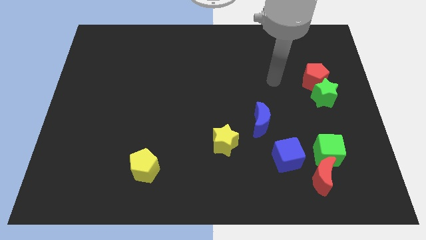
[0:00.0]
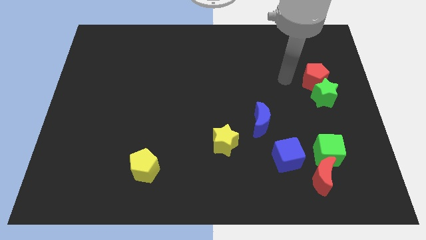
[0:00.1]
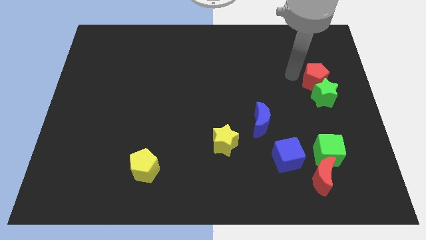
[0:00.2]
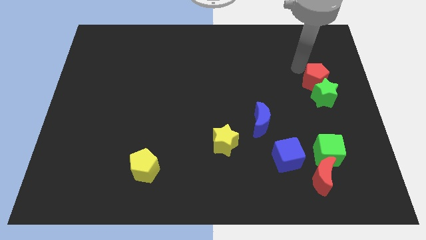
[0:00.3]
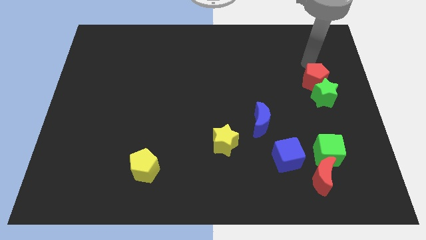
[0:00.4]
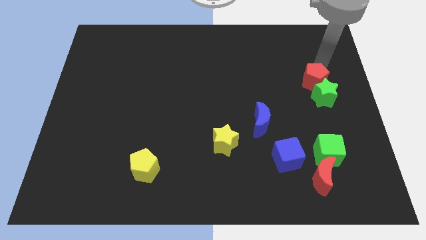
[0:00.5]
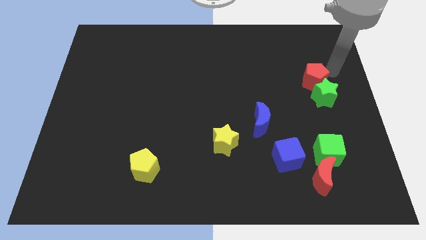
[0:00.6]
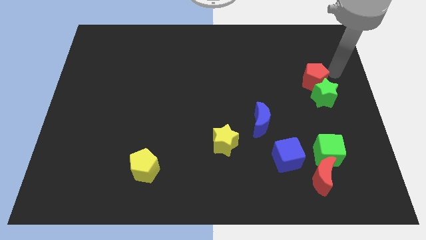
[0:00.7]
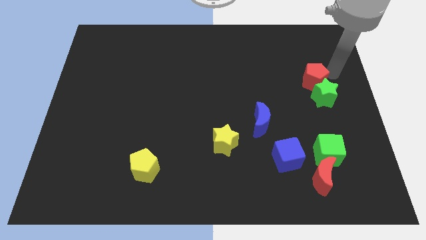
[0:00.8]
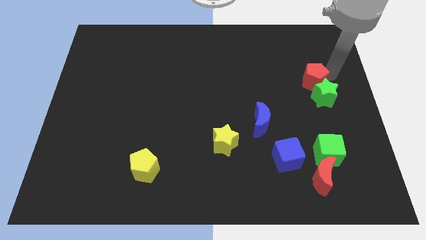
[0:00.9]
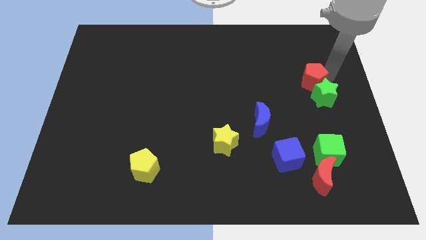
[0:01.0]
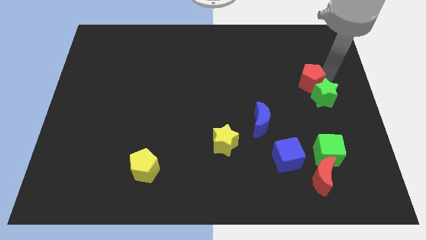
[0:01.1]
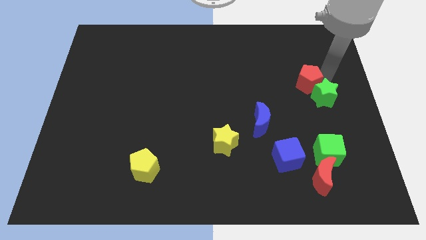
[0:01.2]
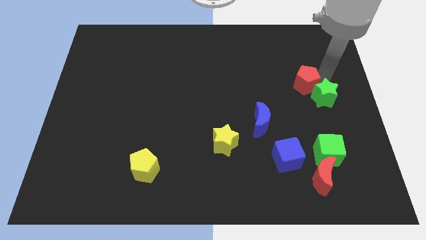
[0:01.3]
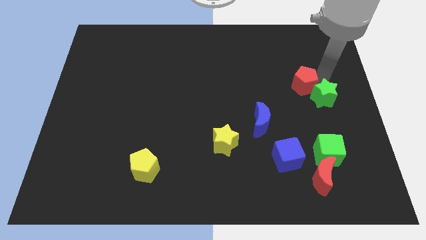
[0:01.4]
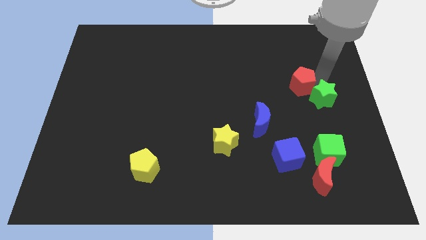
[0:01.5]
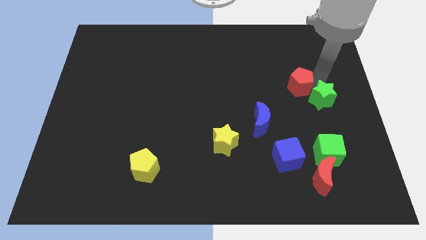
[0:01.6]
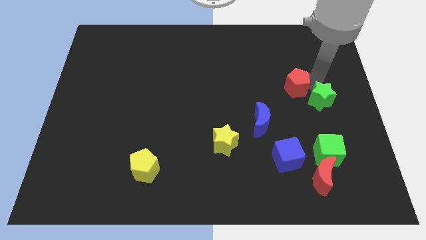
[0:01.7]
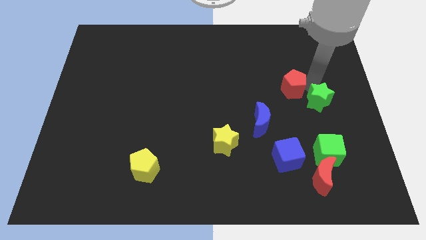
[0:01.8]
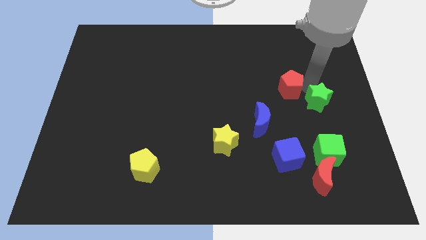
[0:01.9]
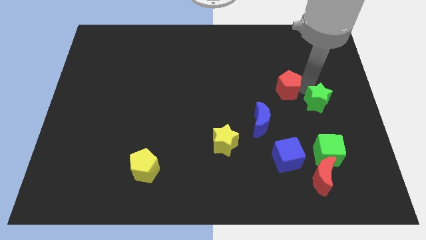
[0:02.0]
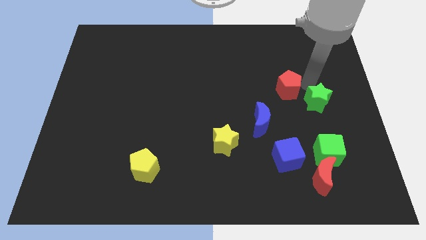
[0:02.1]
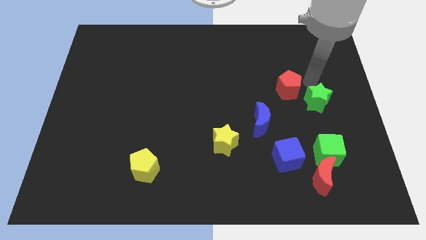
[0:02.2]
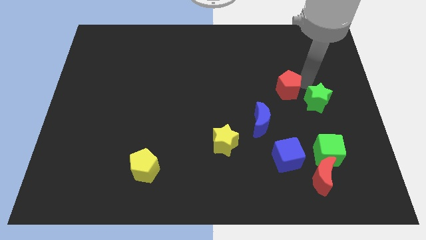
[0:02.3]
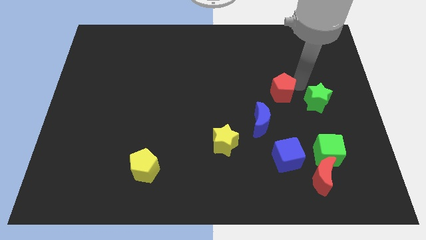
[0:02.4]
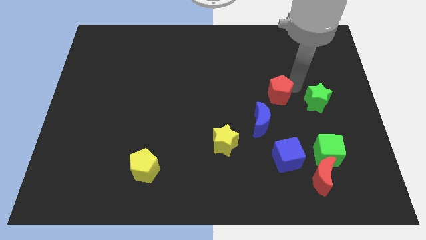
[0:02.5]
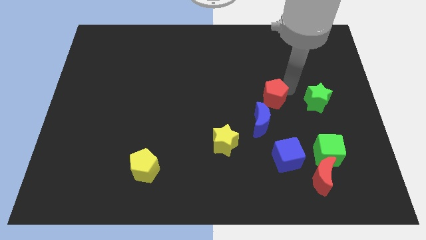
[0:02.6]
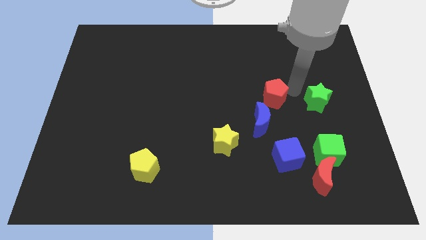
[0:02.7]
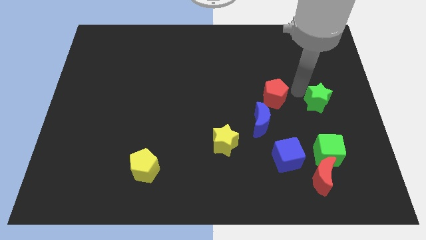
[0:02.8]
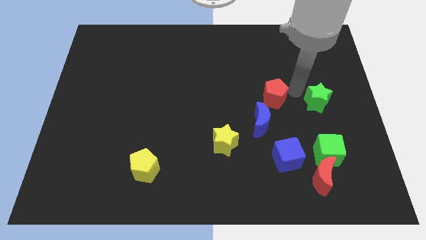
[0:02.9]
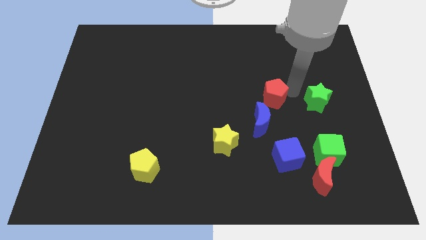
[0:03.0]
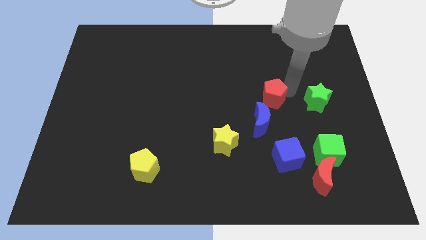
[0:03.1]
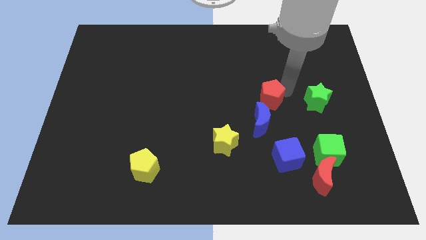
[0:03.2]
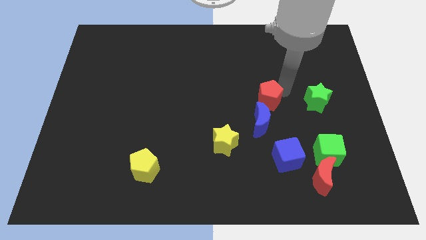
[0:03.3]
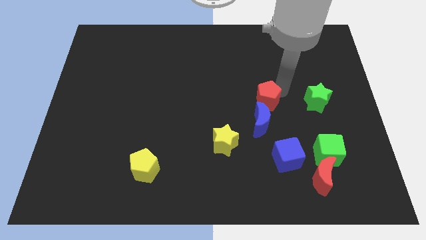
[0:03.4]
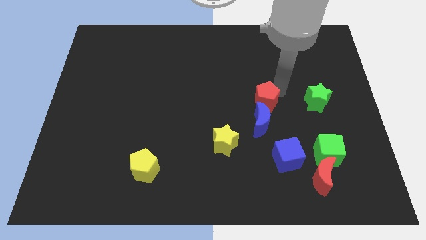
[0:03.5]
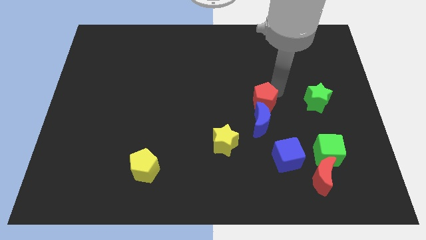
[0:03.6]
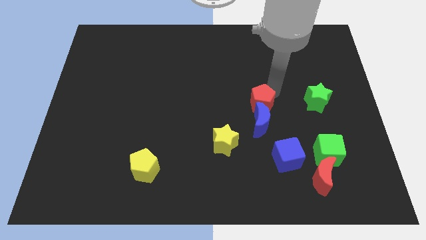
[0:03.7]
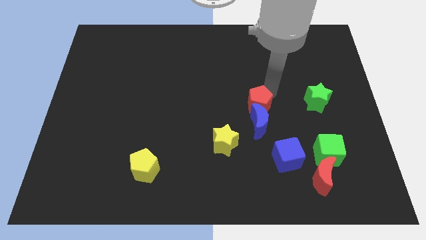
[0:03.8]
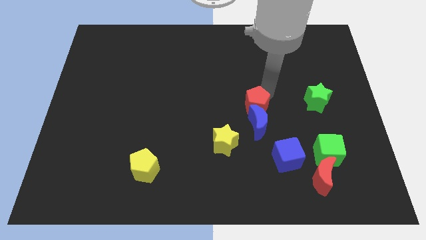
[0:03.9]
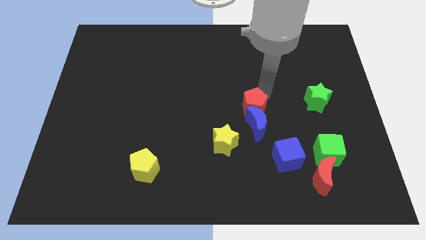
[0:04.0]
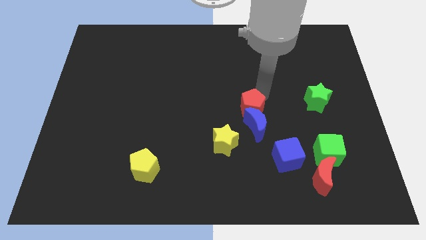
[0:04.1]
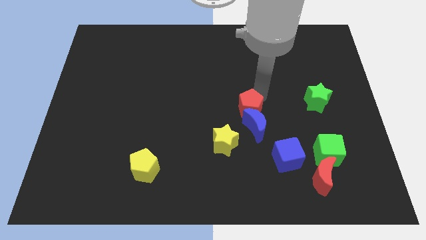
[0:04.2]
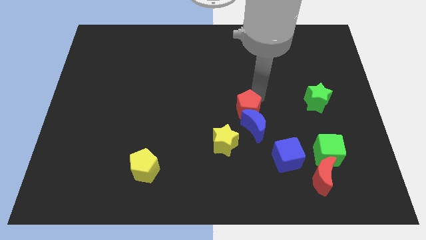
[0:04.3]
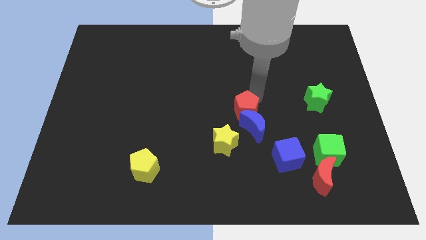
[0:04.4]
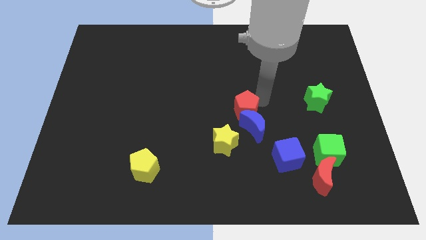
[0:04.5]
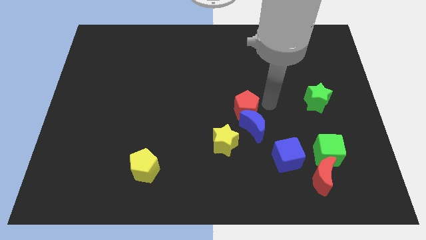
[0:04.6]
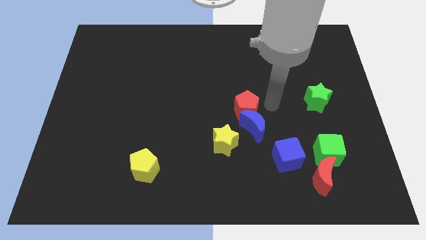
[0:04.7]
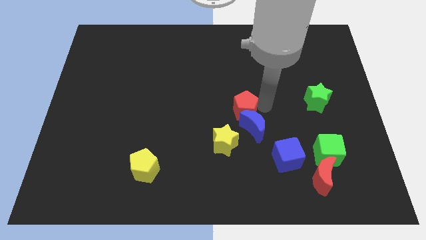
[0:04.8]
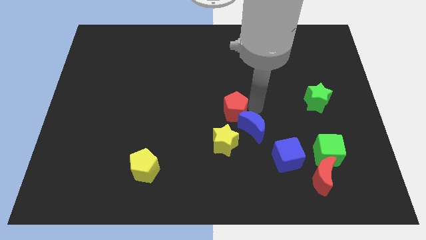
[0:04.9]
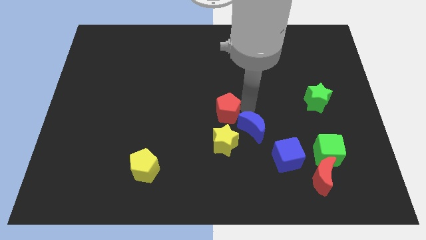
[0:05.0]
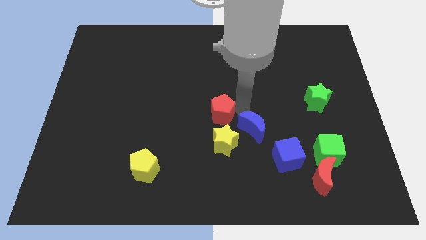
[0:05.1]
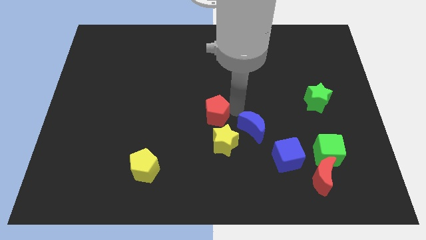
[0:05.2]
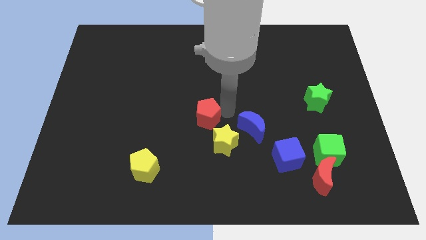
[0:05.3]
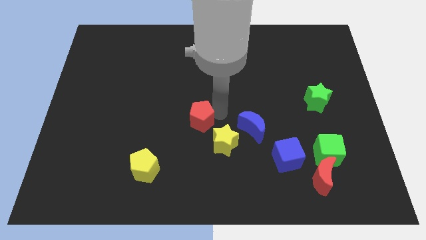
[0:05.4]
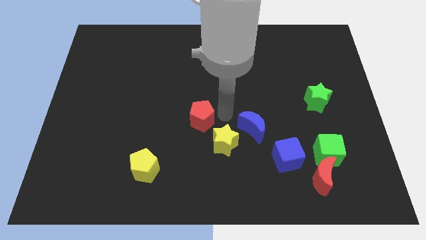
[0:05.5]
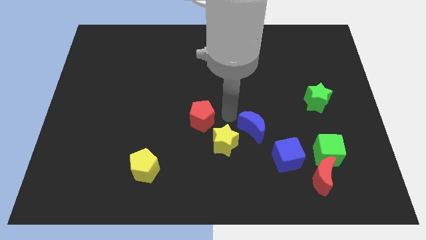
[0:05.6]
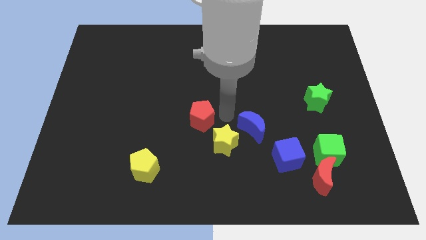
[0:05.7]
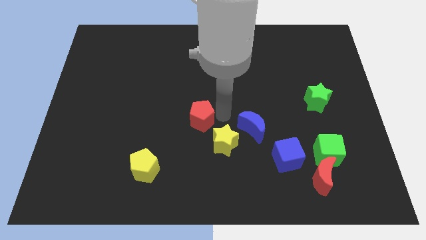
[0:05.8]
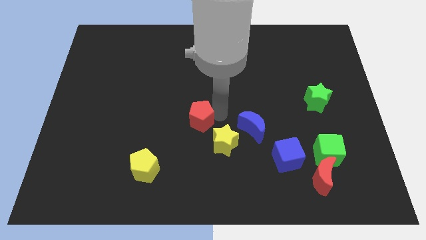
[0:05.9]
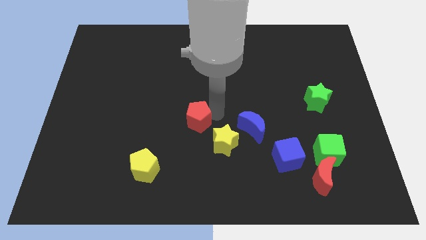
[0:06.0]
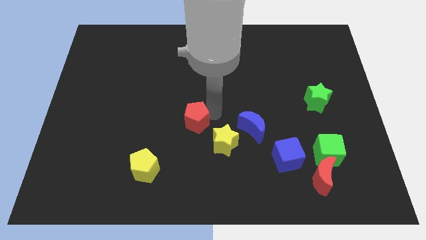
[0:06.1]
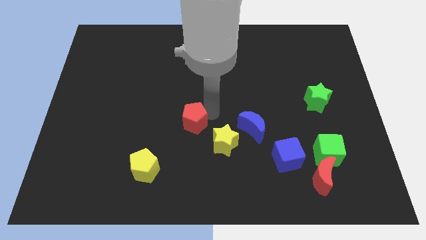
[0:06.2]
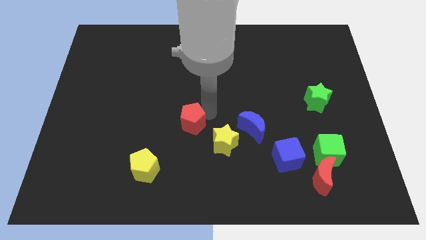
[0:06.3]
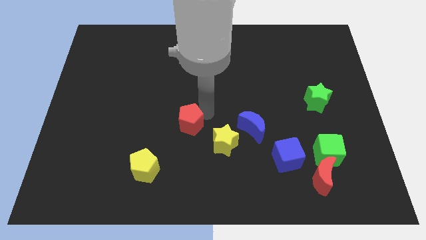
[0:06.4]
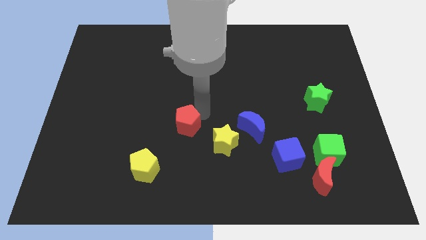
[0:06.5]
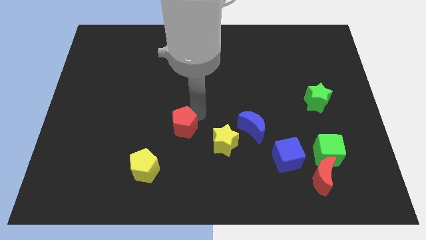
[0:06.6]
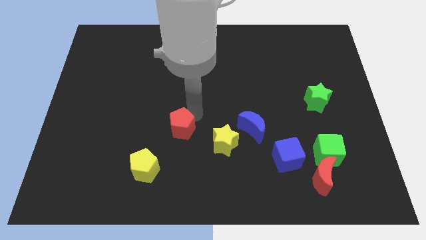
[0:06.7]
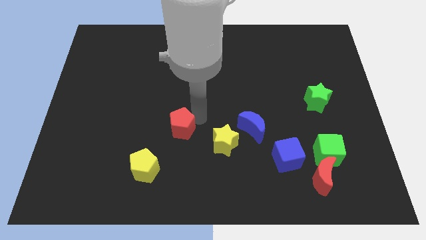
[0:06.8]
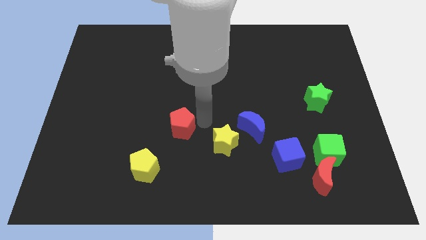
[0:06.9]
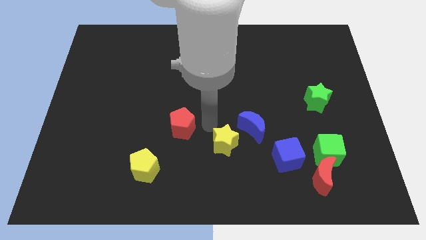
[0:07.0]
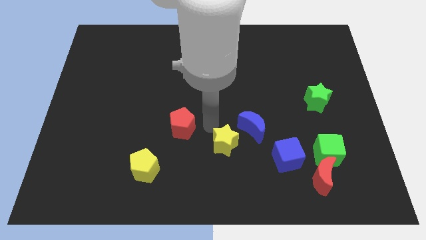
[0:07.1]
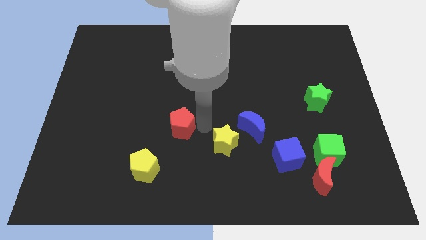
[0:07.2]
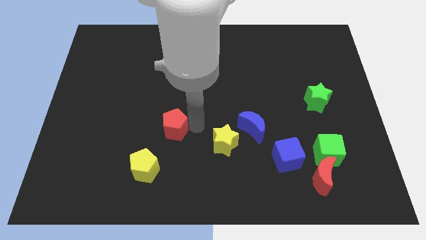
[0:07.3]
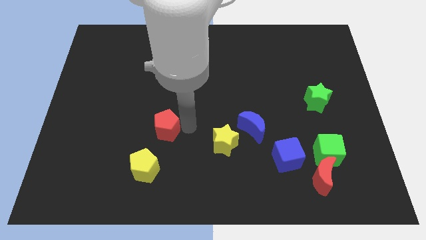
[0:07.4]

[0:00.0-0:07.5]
put the red pentagon above the yellow pentagon

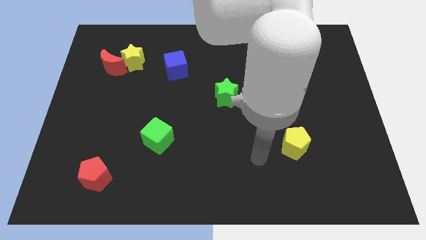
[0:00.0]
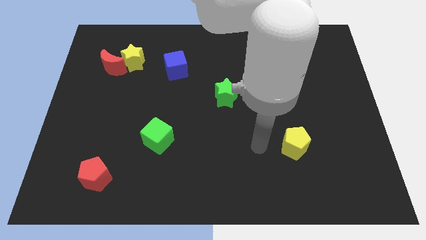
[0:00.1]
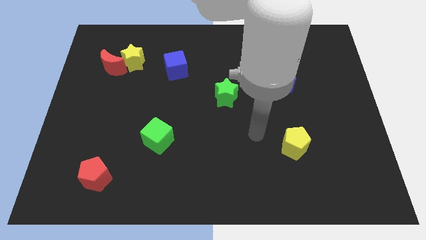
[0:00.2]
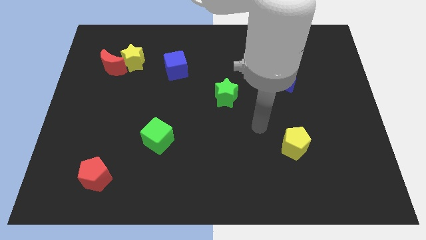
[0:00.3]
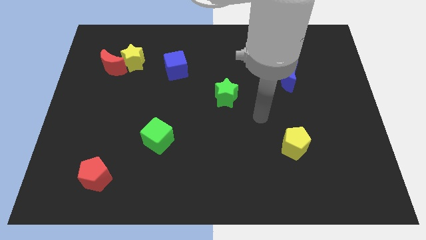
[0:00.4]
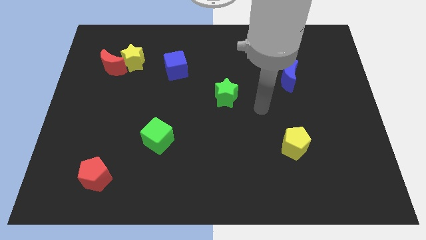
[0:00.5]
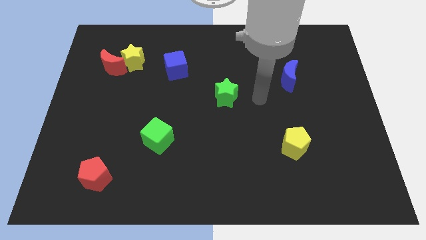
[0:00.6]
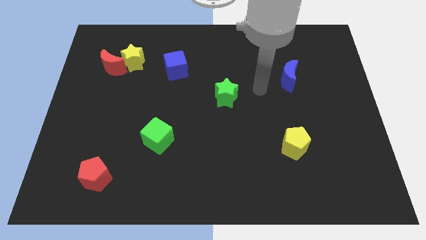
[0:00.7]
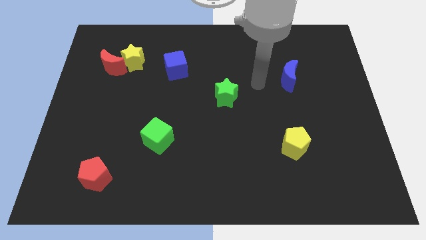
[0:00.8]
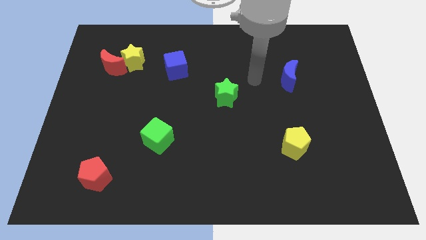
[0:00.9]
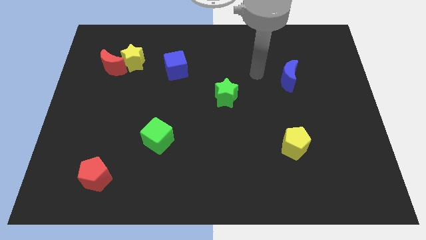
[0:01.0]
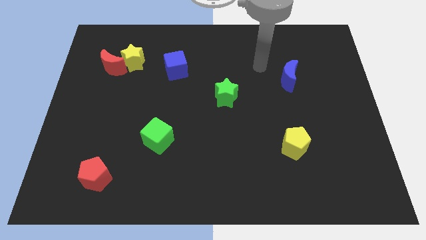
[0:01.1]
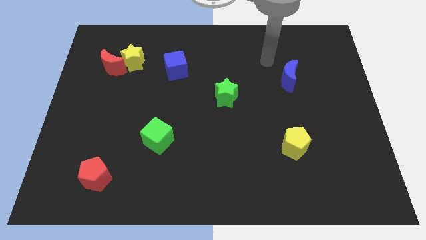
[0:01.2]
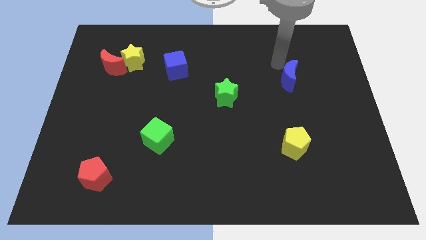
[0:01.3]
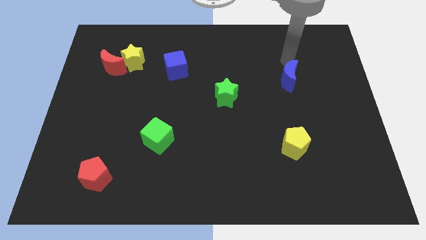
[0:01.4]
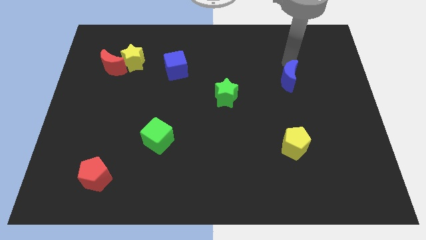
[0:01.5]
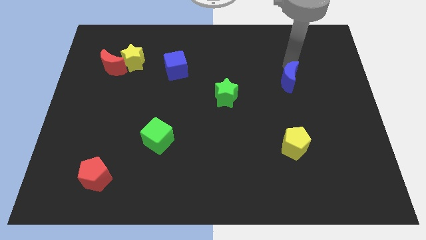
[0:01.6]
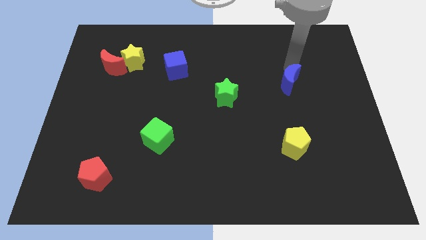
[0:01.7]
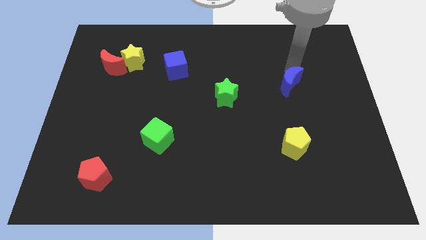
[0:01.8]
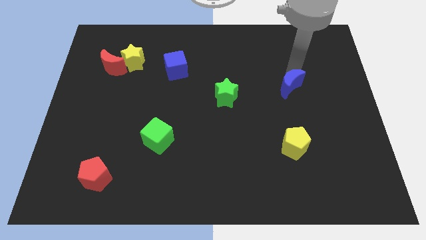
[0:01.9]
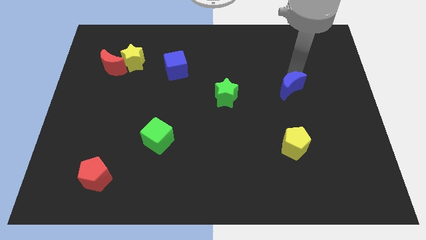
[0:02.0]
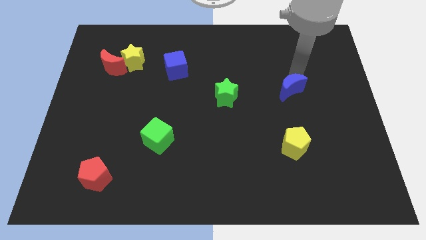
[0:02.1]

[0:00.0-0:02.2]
slide the blue moon to the top side of the yellow pentagon
